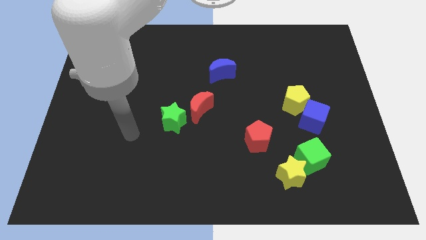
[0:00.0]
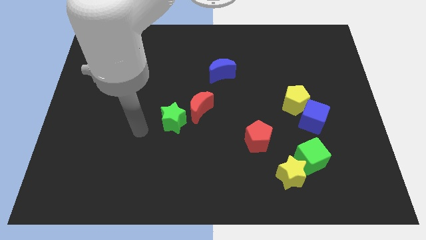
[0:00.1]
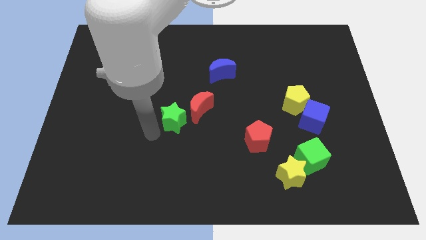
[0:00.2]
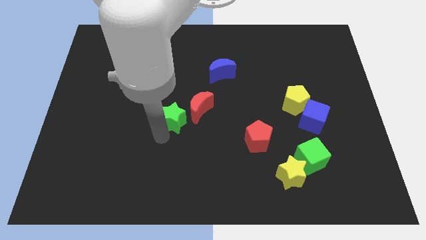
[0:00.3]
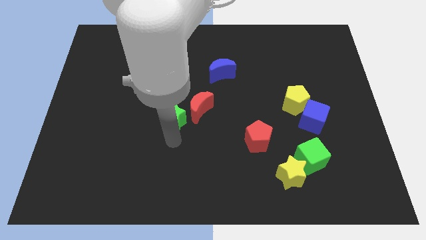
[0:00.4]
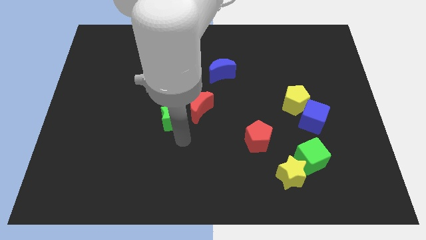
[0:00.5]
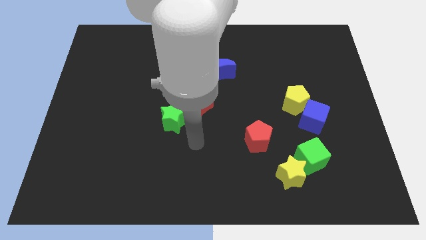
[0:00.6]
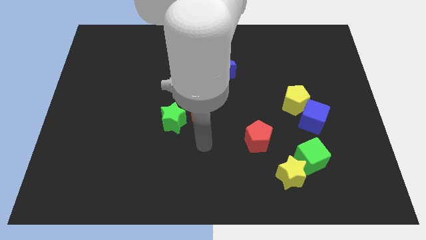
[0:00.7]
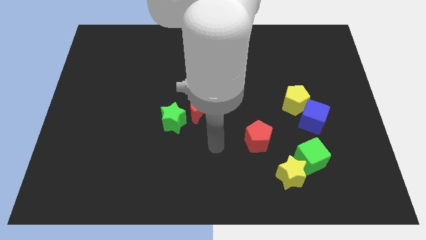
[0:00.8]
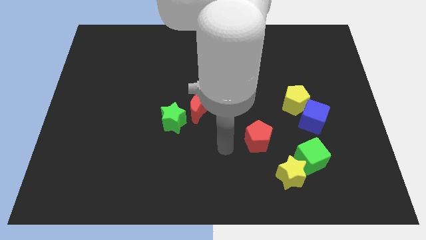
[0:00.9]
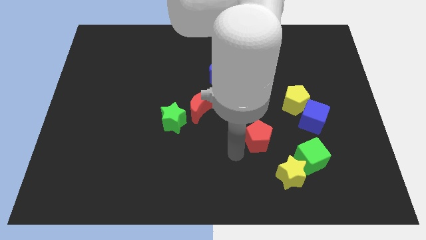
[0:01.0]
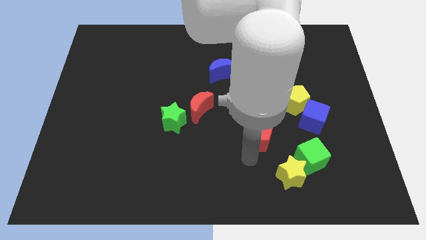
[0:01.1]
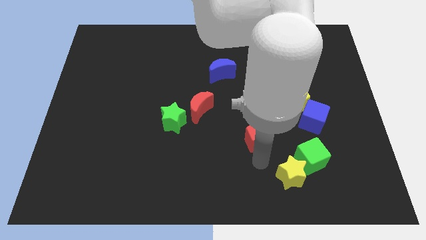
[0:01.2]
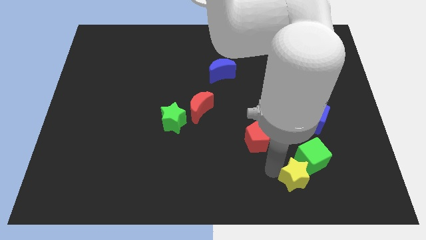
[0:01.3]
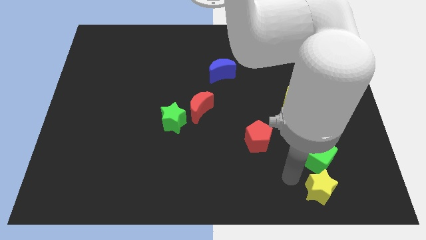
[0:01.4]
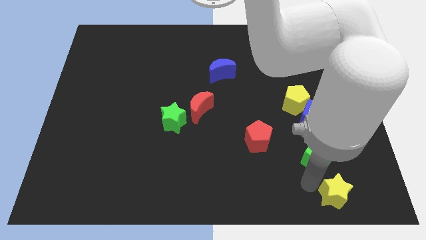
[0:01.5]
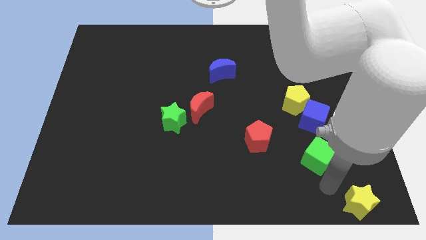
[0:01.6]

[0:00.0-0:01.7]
pull the green cube apart from the yellow star

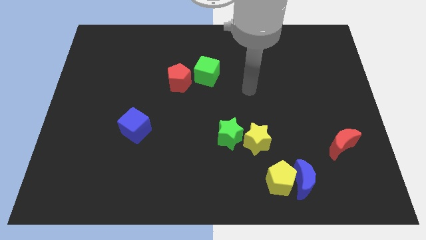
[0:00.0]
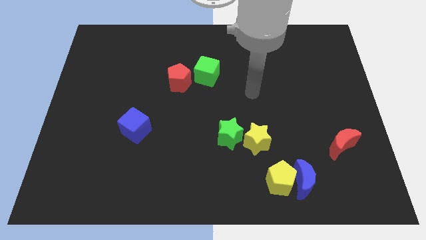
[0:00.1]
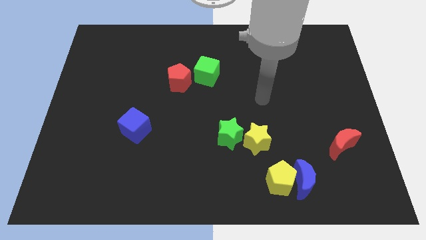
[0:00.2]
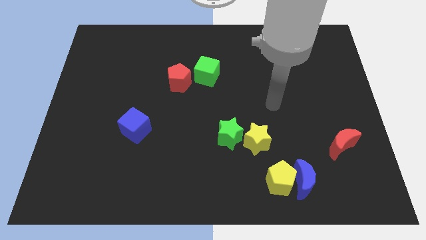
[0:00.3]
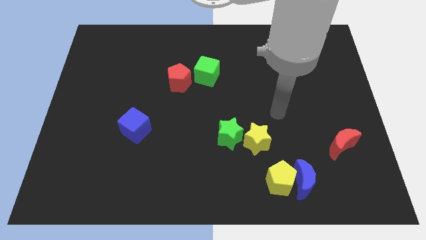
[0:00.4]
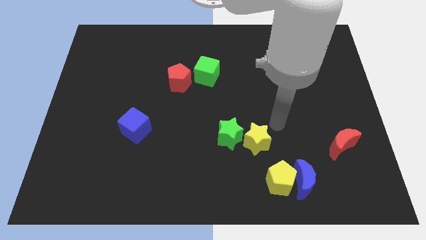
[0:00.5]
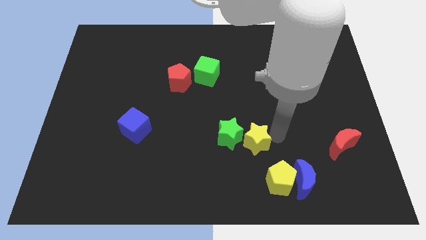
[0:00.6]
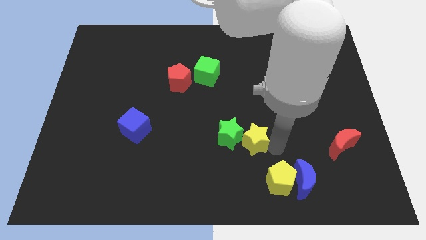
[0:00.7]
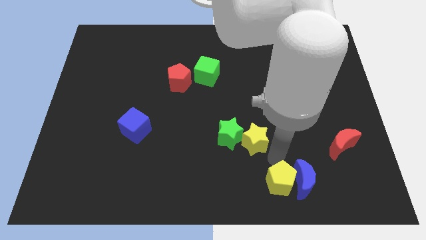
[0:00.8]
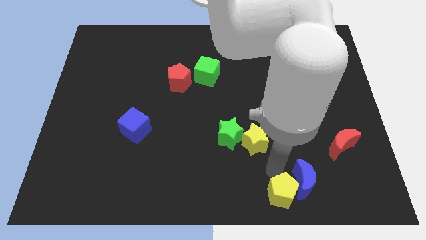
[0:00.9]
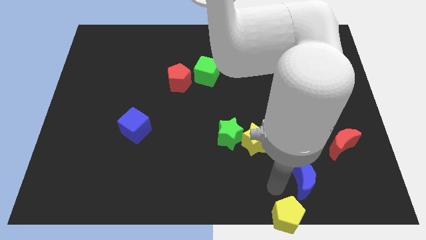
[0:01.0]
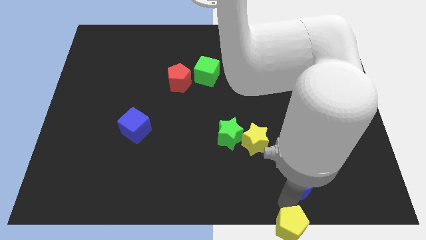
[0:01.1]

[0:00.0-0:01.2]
pull the blue moon apart from the yellow pentagon

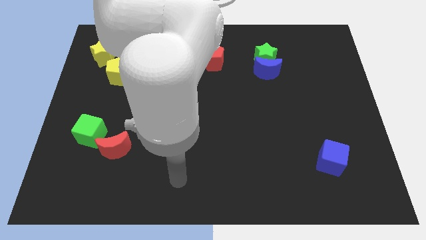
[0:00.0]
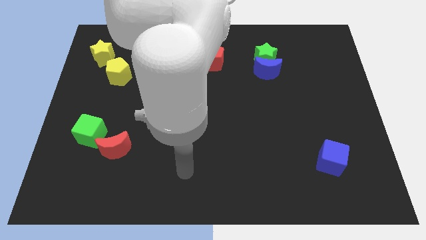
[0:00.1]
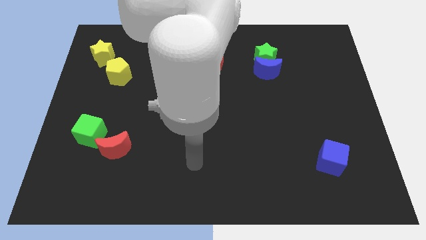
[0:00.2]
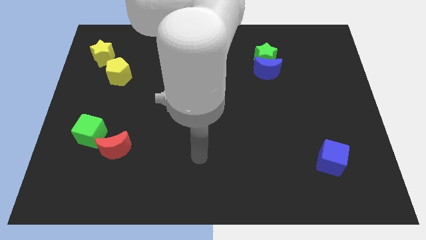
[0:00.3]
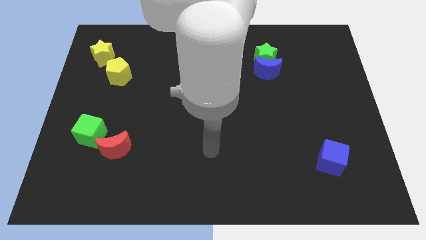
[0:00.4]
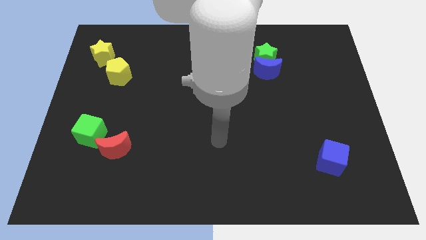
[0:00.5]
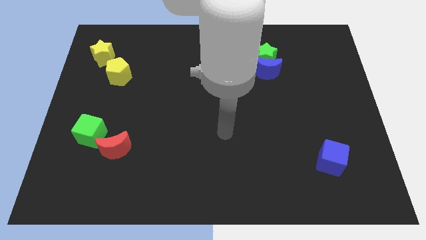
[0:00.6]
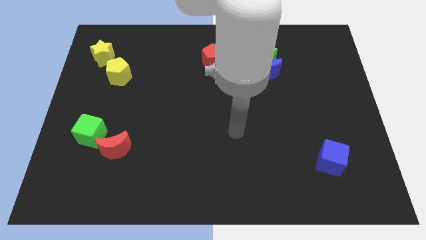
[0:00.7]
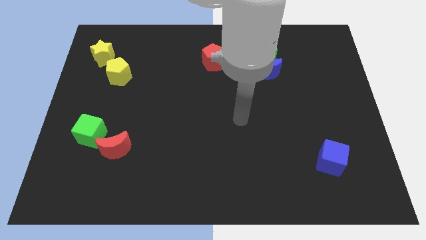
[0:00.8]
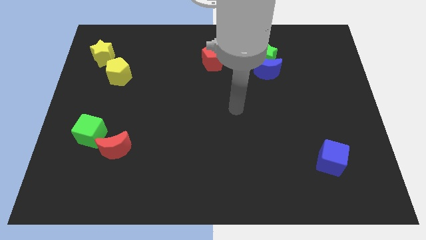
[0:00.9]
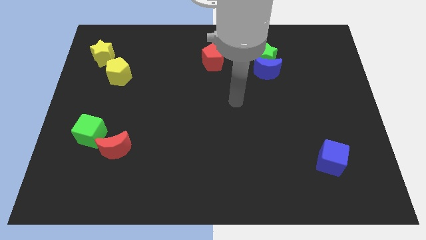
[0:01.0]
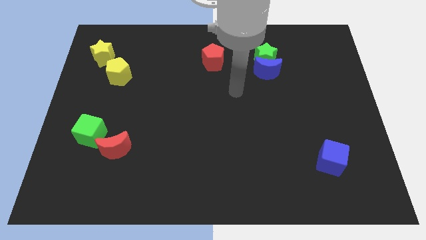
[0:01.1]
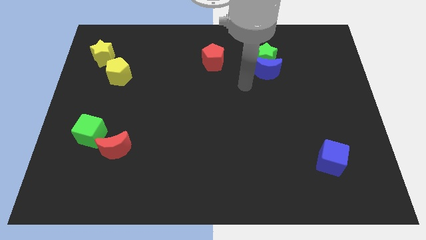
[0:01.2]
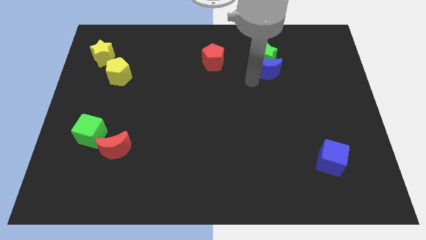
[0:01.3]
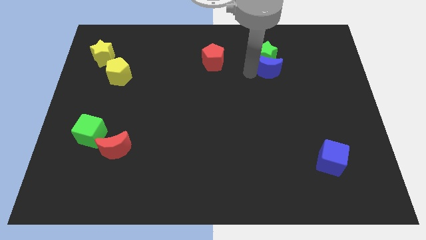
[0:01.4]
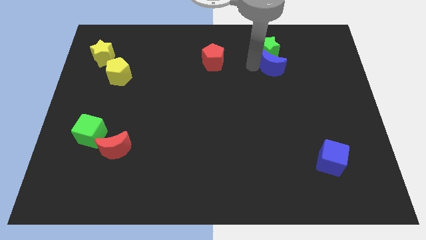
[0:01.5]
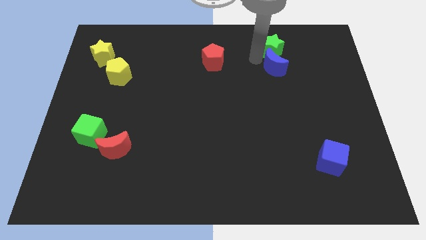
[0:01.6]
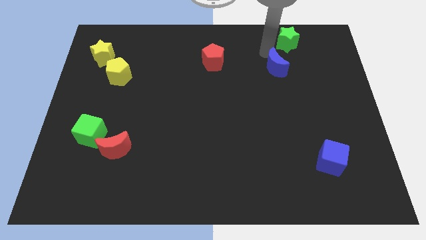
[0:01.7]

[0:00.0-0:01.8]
move the blue moon away from the green star

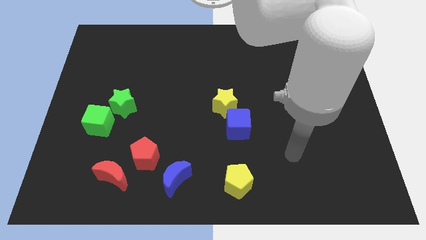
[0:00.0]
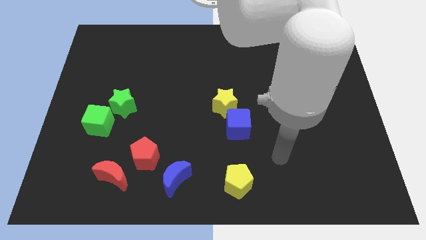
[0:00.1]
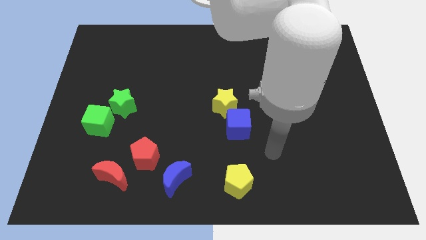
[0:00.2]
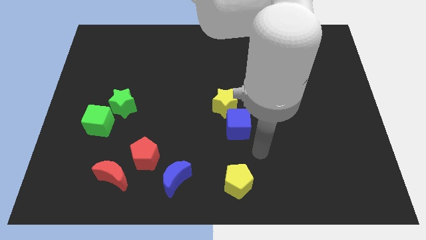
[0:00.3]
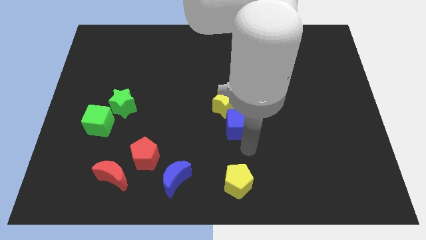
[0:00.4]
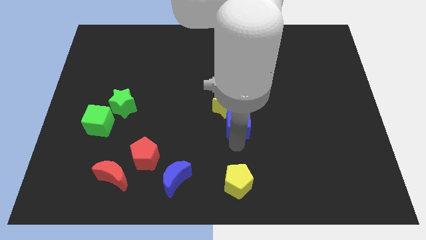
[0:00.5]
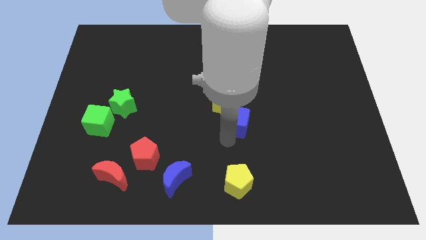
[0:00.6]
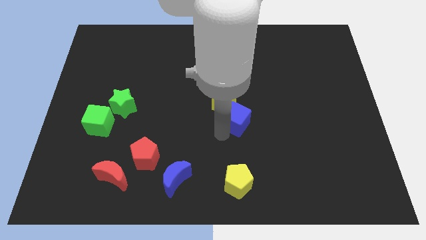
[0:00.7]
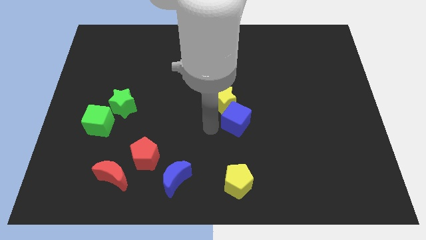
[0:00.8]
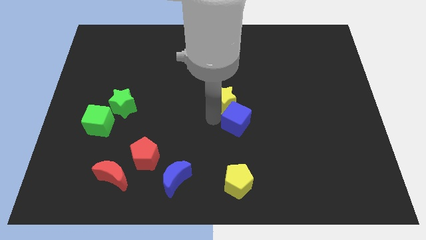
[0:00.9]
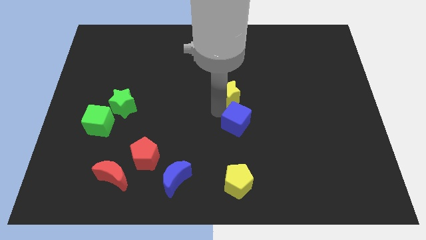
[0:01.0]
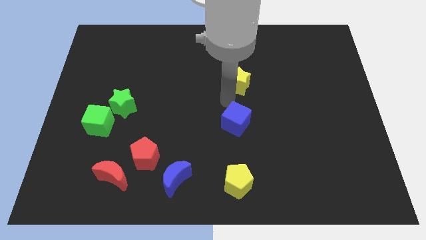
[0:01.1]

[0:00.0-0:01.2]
pull the blue cube apart from the yellow star

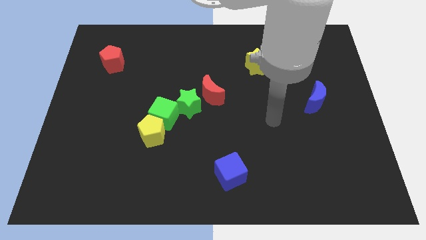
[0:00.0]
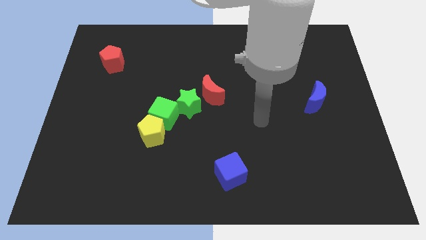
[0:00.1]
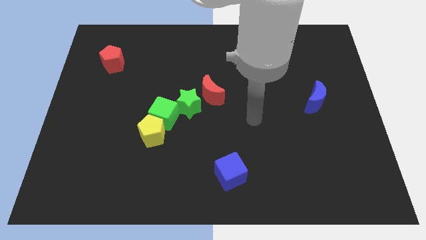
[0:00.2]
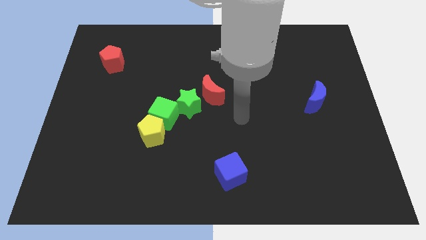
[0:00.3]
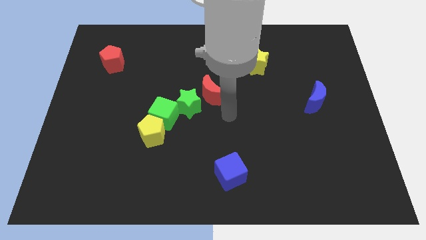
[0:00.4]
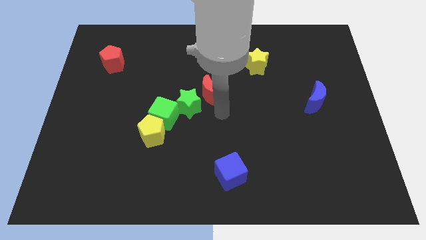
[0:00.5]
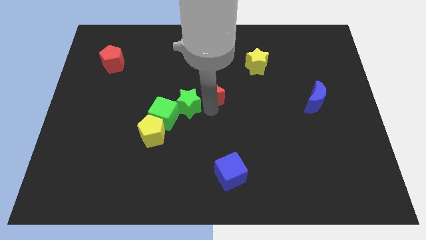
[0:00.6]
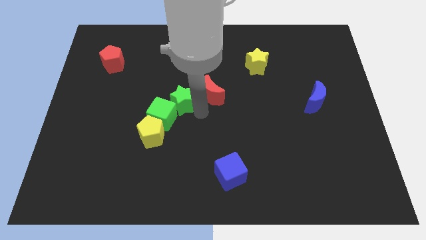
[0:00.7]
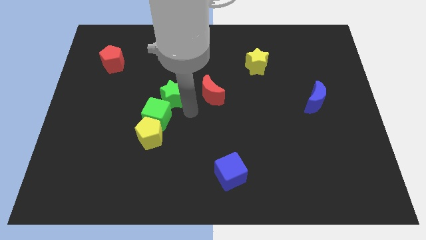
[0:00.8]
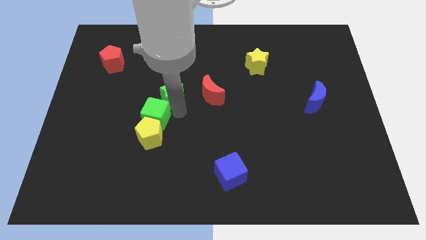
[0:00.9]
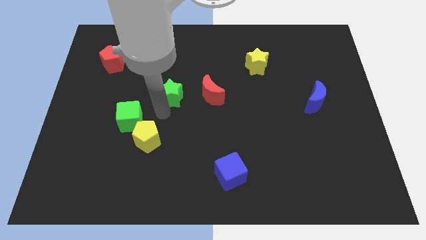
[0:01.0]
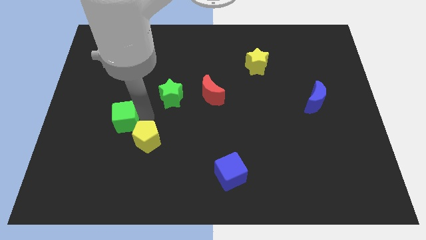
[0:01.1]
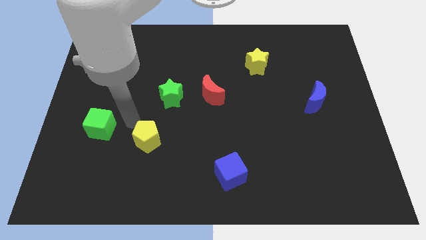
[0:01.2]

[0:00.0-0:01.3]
separate the yellow pentagon from the green cube

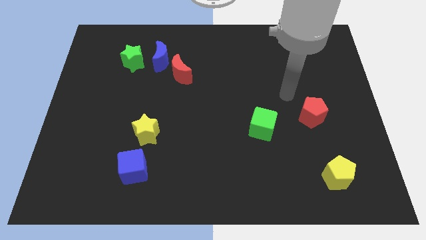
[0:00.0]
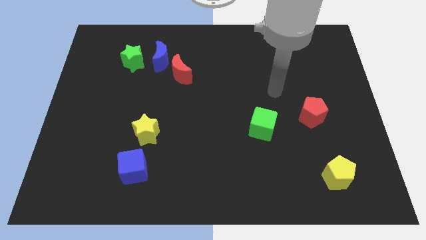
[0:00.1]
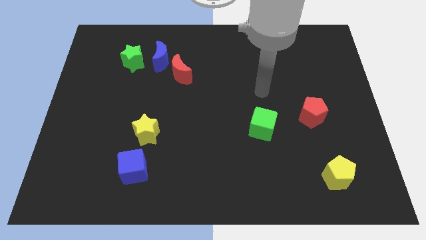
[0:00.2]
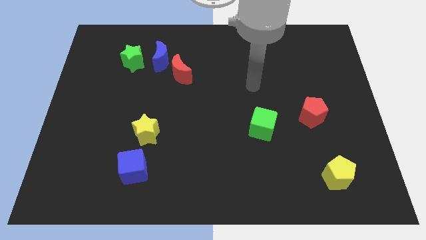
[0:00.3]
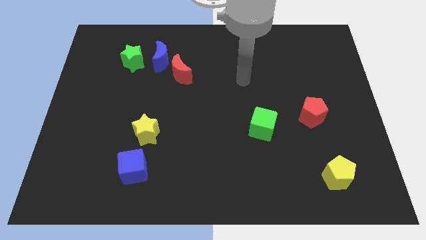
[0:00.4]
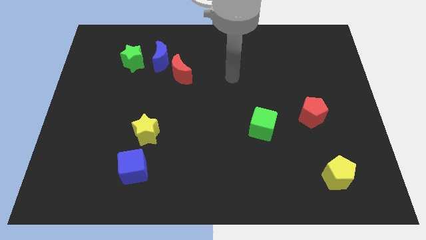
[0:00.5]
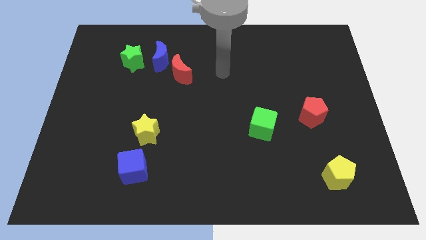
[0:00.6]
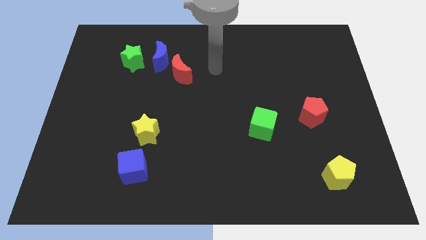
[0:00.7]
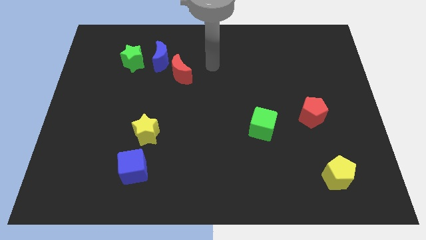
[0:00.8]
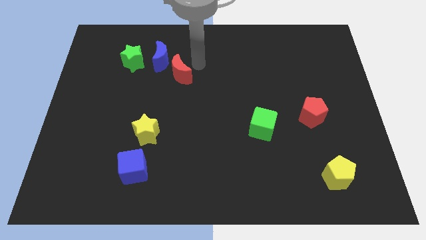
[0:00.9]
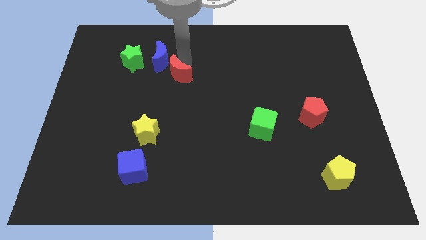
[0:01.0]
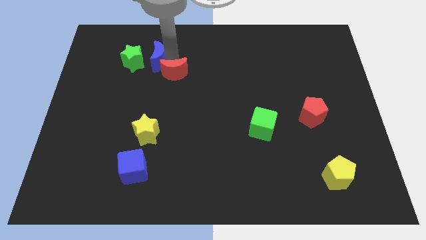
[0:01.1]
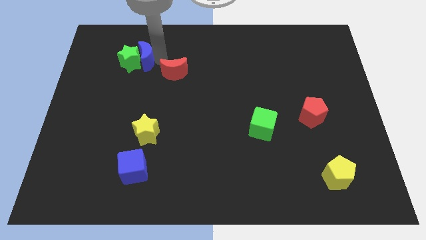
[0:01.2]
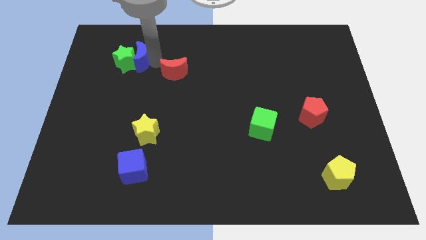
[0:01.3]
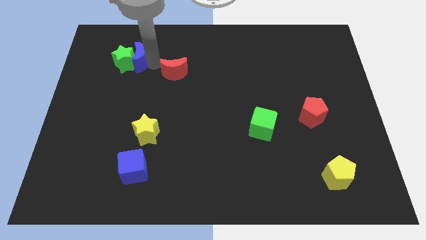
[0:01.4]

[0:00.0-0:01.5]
separate the red moon from the blue moon

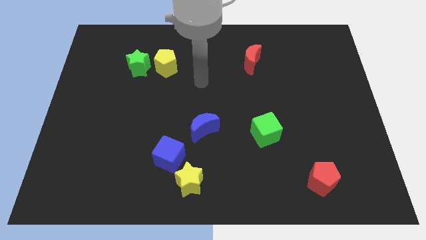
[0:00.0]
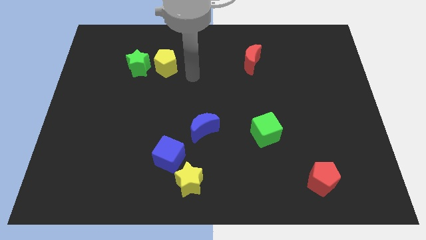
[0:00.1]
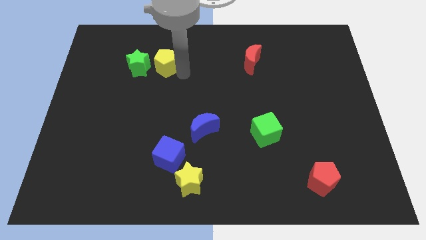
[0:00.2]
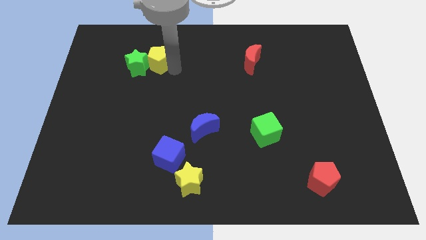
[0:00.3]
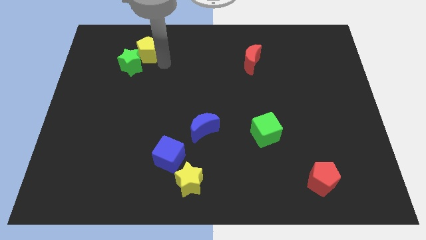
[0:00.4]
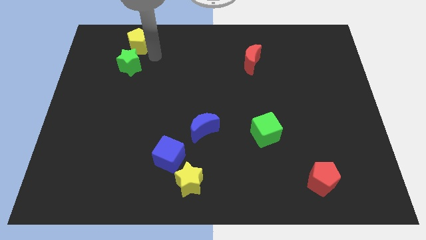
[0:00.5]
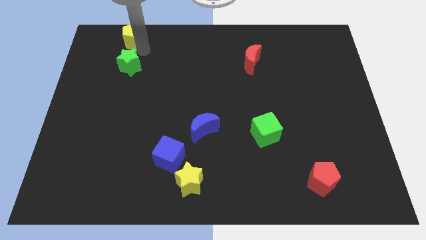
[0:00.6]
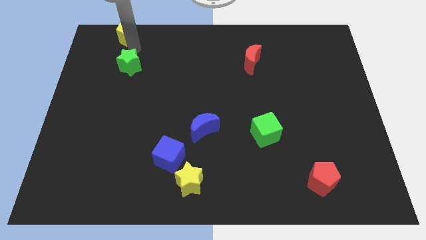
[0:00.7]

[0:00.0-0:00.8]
pull the green star apart from the yellow pentagon
